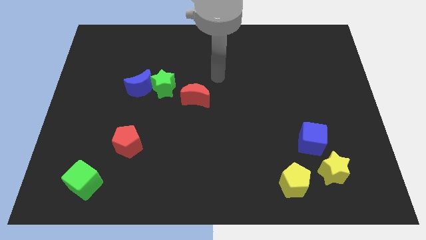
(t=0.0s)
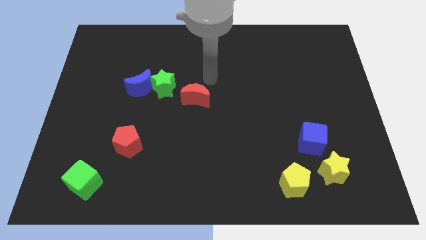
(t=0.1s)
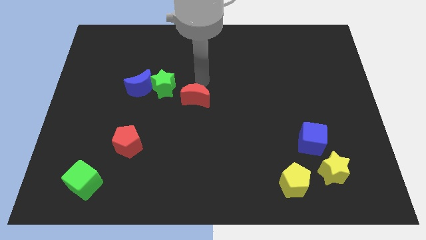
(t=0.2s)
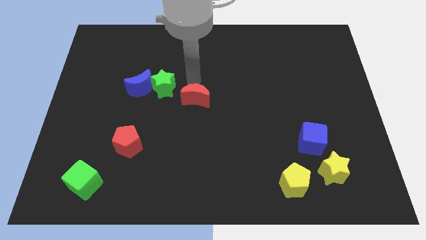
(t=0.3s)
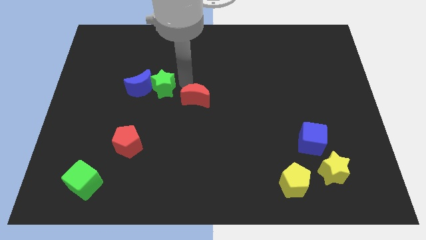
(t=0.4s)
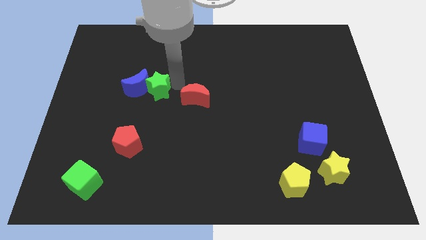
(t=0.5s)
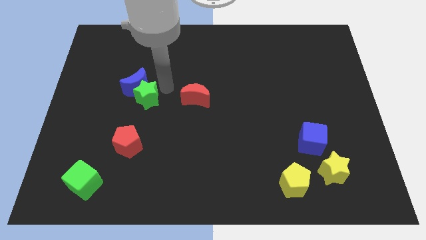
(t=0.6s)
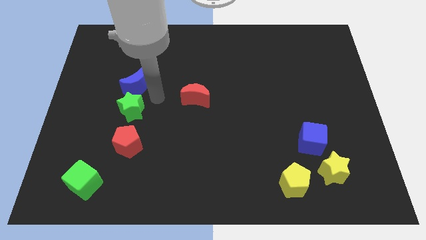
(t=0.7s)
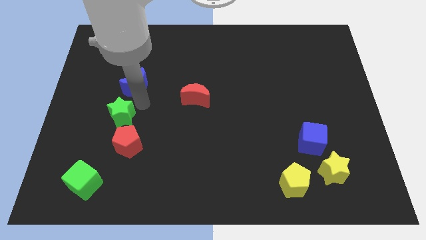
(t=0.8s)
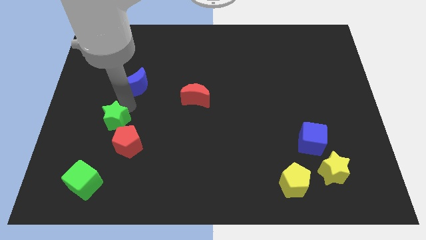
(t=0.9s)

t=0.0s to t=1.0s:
separate the blue moon from the green star

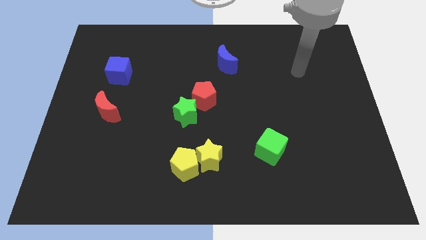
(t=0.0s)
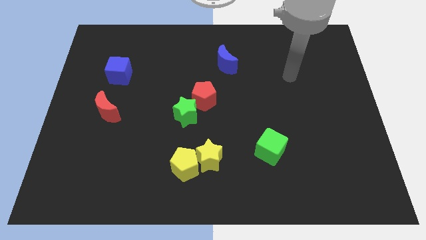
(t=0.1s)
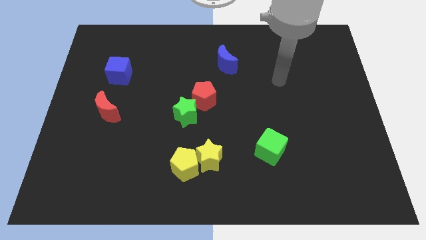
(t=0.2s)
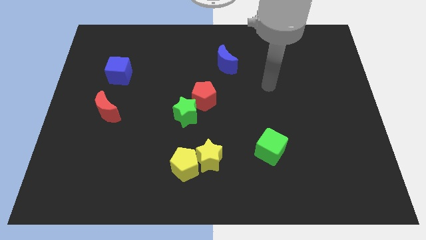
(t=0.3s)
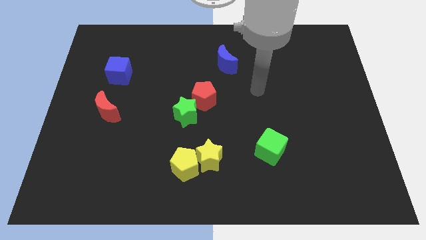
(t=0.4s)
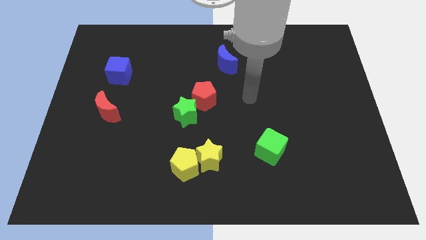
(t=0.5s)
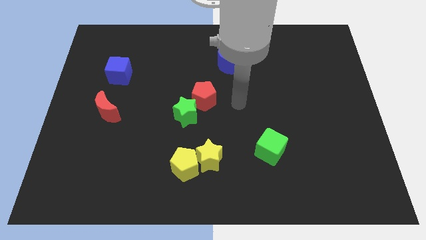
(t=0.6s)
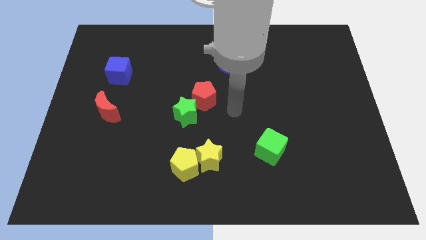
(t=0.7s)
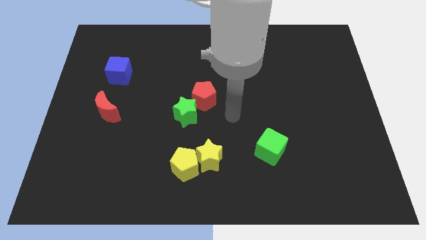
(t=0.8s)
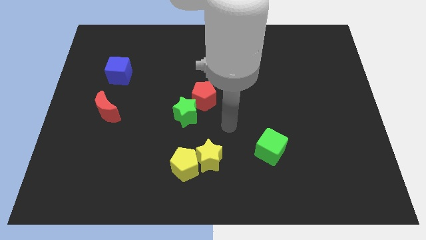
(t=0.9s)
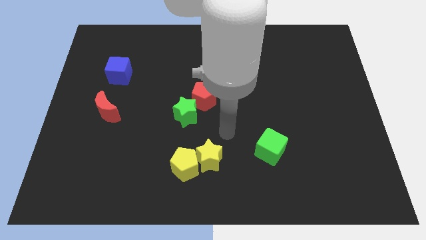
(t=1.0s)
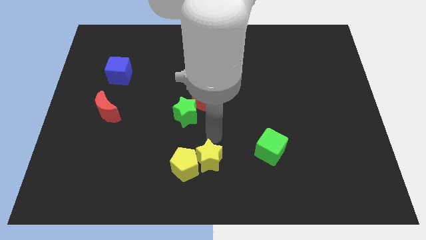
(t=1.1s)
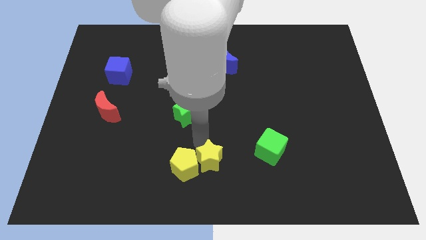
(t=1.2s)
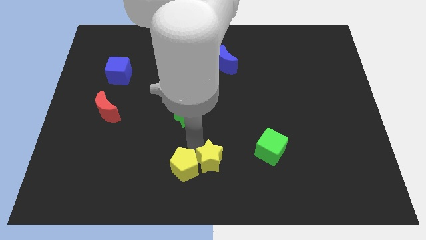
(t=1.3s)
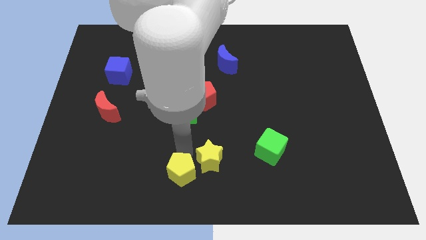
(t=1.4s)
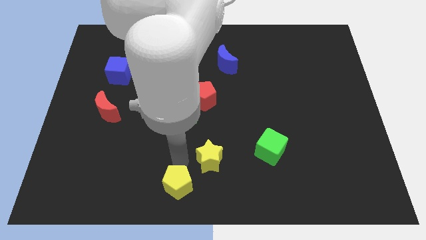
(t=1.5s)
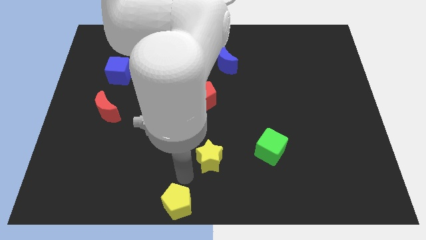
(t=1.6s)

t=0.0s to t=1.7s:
separate the yellow star from the yellow pentagon

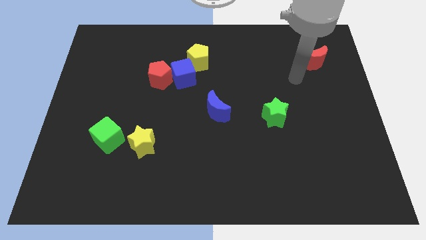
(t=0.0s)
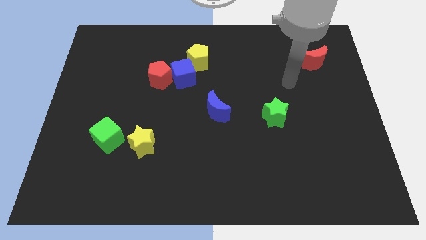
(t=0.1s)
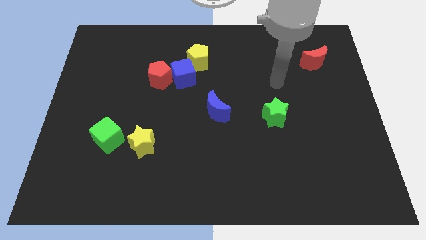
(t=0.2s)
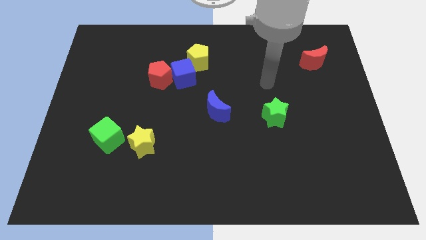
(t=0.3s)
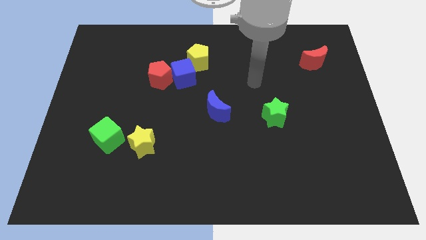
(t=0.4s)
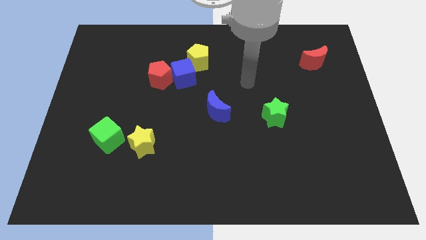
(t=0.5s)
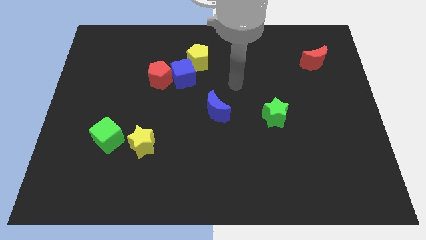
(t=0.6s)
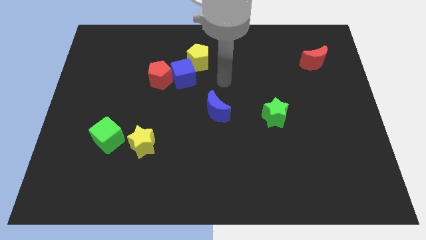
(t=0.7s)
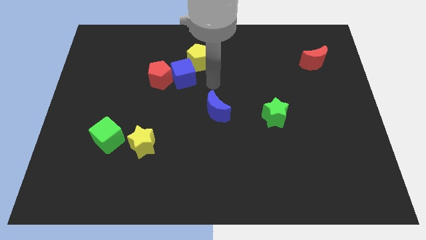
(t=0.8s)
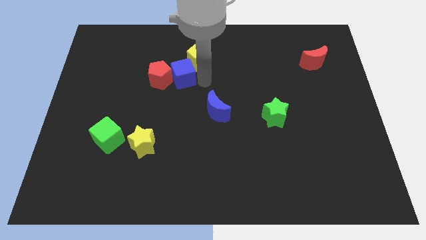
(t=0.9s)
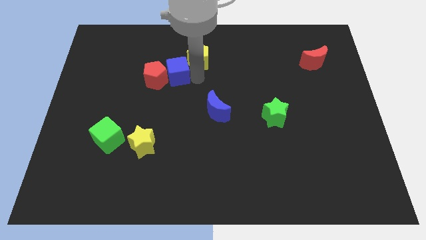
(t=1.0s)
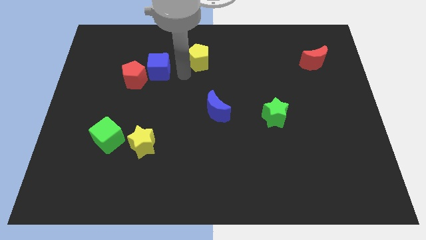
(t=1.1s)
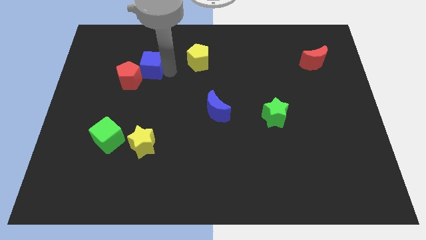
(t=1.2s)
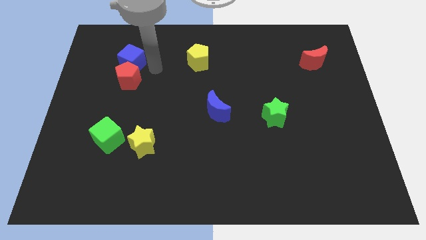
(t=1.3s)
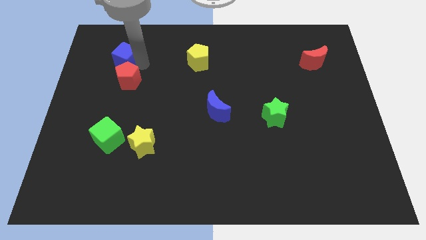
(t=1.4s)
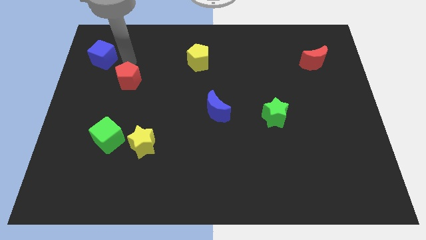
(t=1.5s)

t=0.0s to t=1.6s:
separate the red pentagon from the blue cube

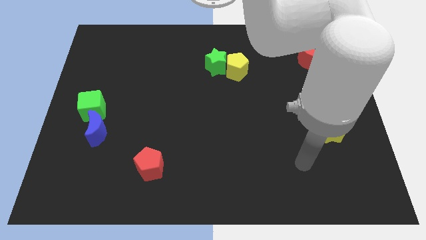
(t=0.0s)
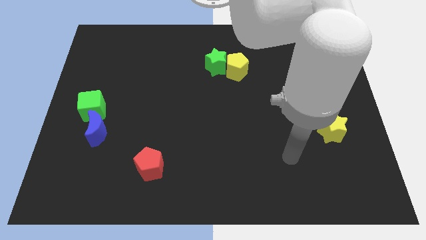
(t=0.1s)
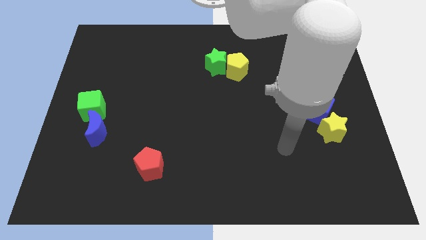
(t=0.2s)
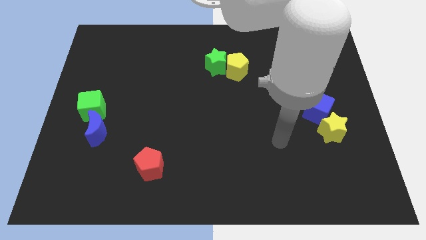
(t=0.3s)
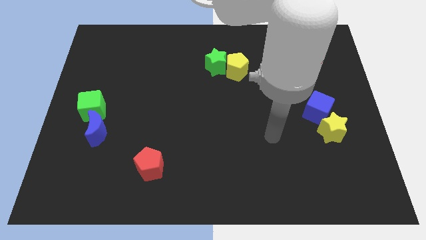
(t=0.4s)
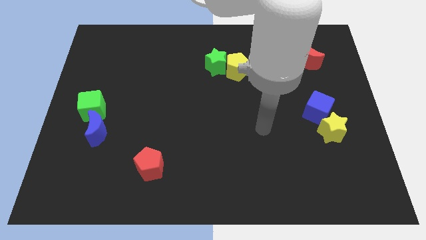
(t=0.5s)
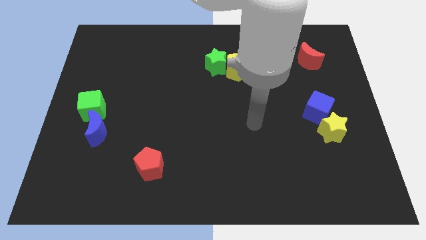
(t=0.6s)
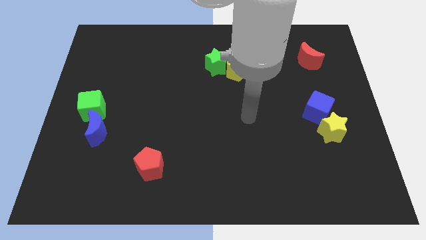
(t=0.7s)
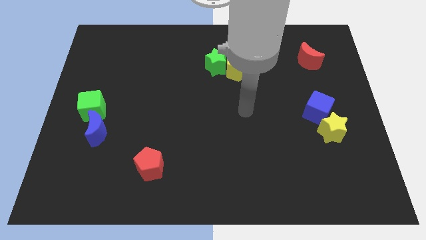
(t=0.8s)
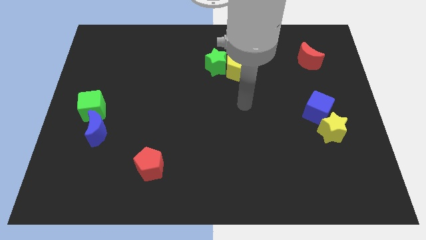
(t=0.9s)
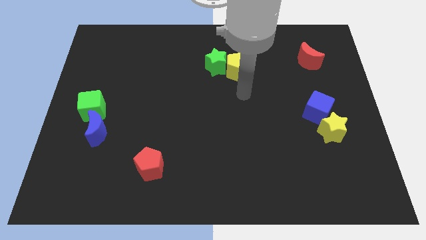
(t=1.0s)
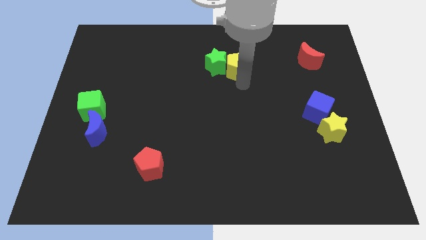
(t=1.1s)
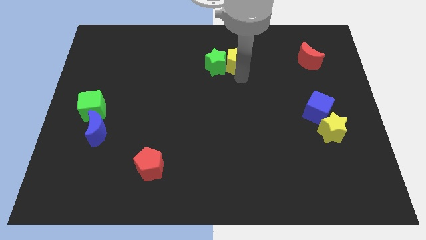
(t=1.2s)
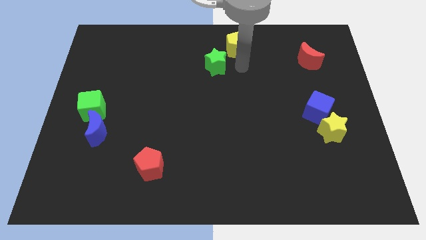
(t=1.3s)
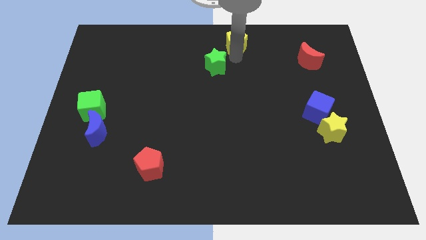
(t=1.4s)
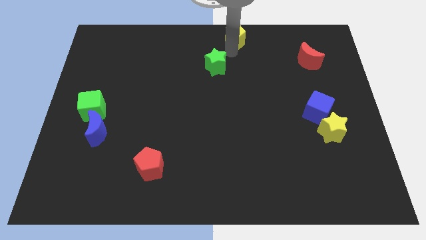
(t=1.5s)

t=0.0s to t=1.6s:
move the green star away from the yellow pentagon

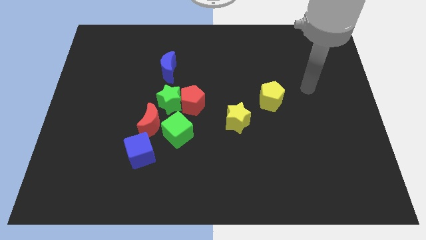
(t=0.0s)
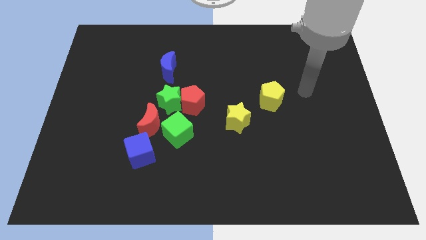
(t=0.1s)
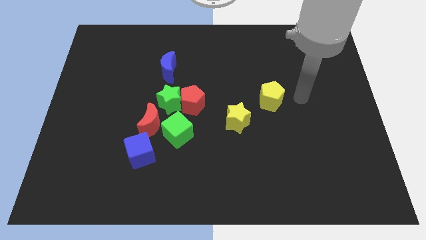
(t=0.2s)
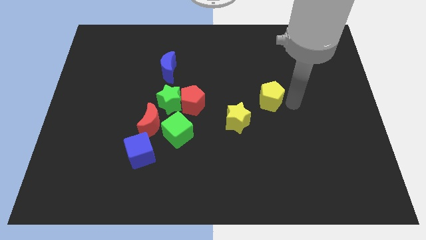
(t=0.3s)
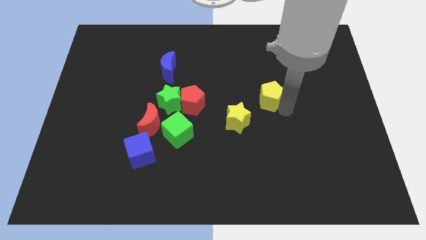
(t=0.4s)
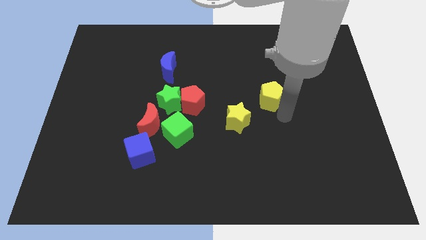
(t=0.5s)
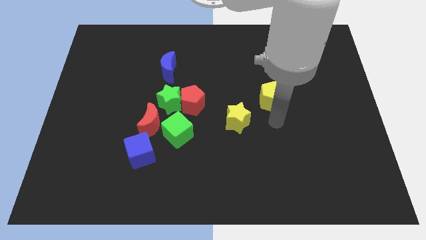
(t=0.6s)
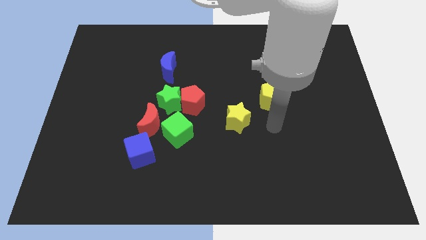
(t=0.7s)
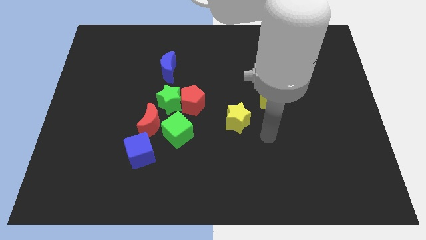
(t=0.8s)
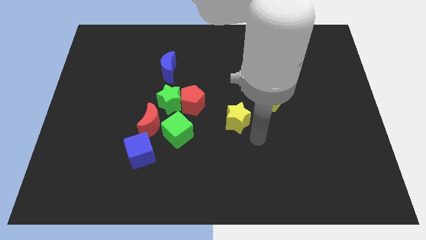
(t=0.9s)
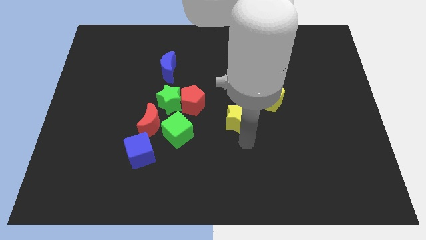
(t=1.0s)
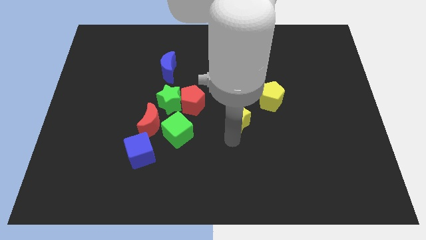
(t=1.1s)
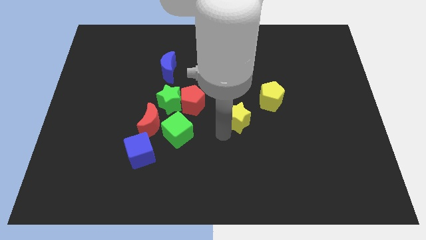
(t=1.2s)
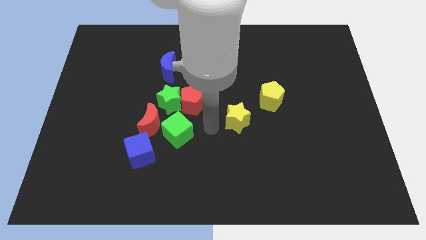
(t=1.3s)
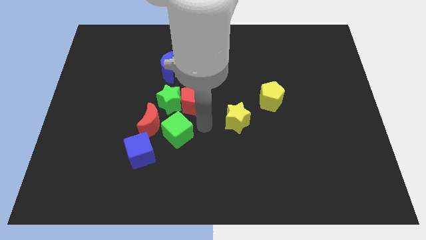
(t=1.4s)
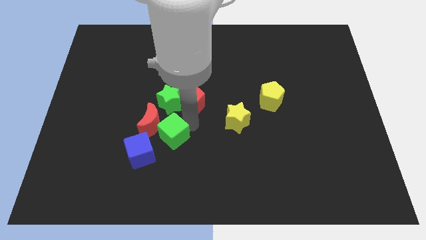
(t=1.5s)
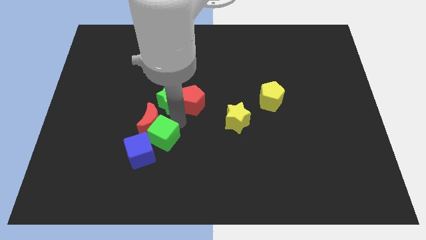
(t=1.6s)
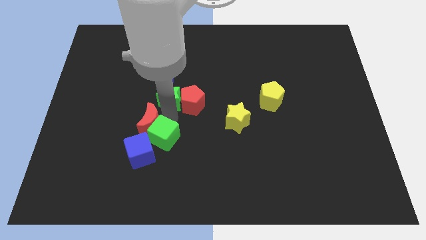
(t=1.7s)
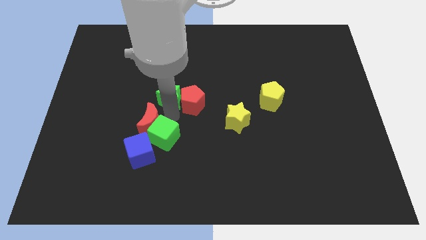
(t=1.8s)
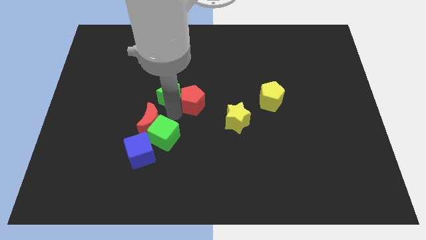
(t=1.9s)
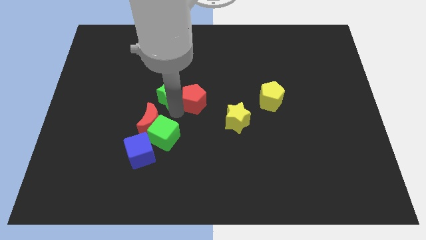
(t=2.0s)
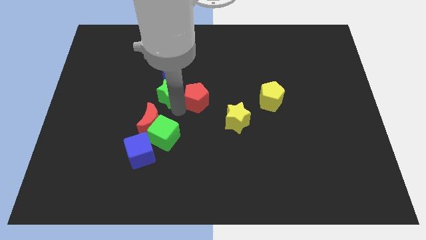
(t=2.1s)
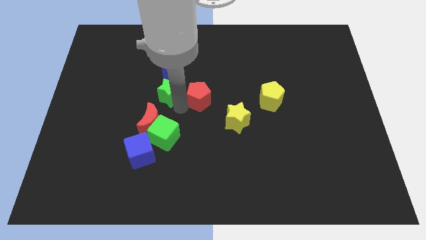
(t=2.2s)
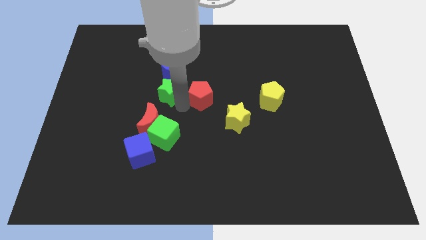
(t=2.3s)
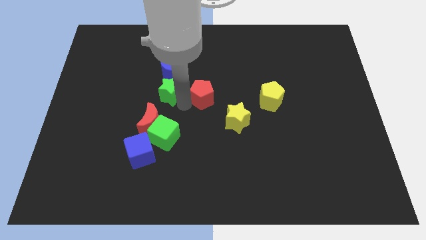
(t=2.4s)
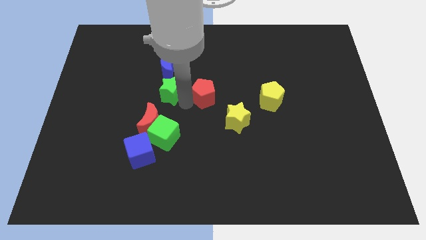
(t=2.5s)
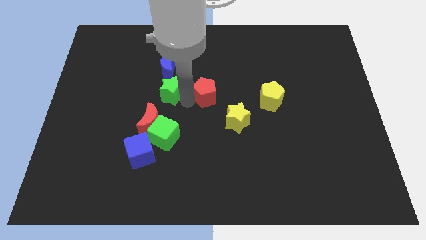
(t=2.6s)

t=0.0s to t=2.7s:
pull the red pentagon apart from the green star and green cube

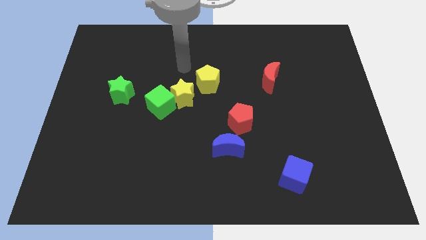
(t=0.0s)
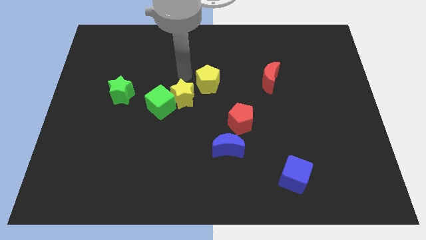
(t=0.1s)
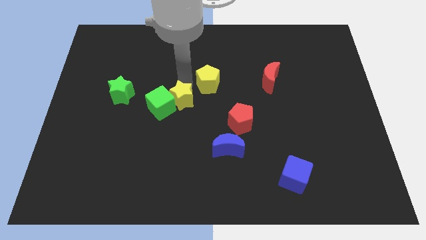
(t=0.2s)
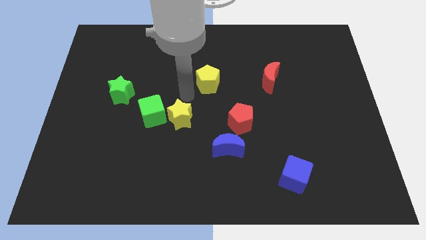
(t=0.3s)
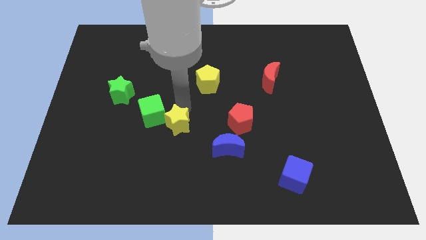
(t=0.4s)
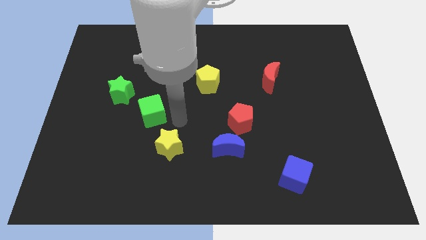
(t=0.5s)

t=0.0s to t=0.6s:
separate the green cube from the yellow star

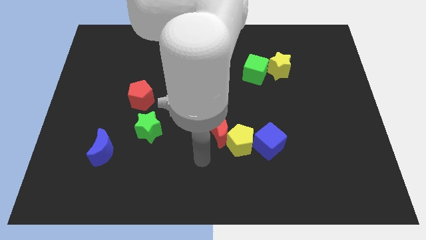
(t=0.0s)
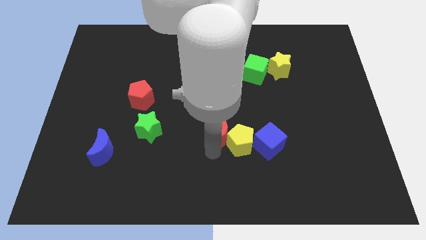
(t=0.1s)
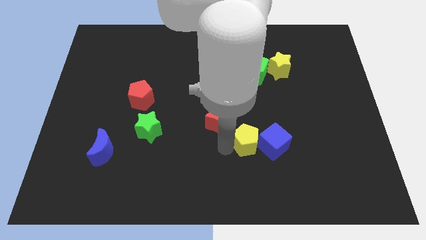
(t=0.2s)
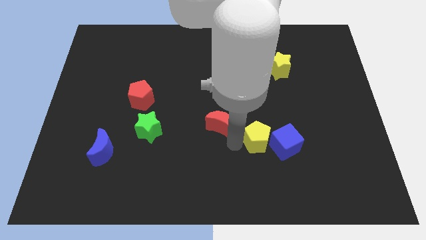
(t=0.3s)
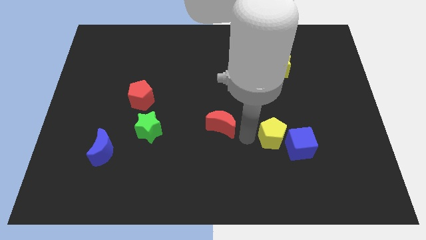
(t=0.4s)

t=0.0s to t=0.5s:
pull the red moon apart from the yellow pentagon
